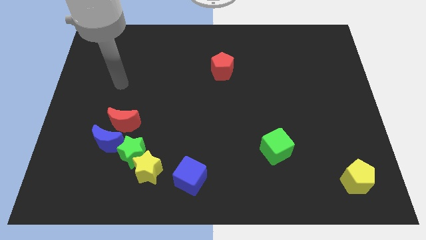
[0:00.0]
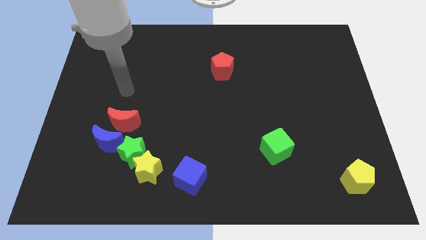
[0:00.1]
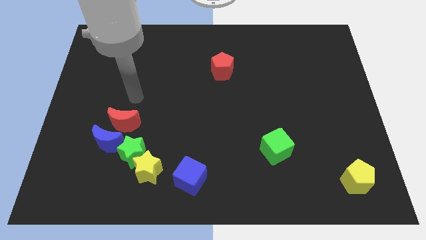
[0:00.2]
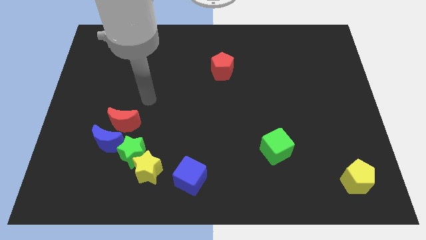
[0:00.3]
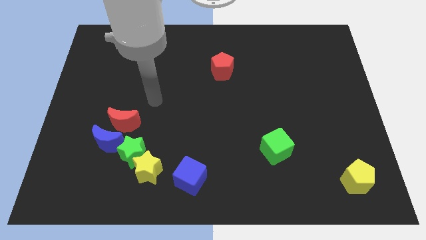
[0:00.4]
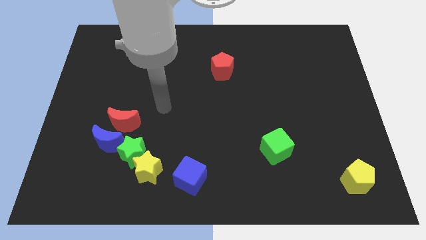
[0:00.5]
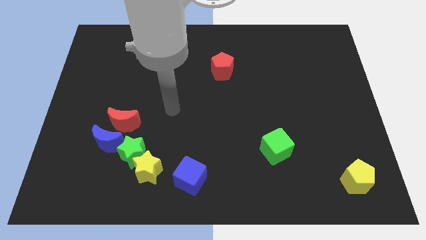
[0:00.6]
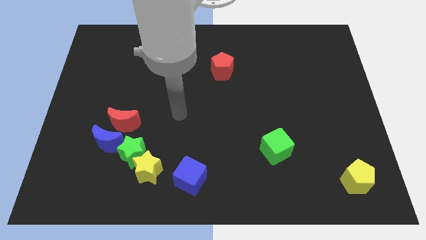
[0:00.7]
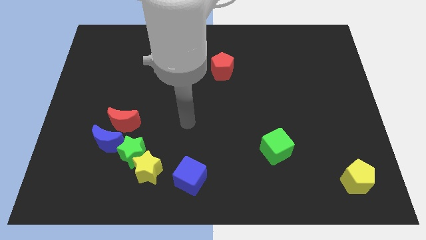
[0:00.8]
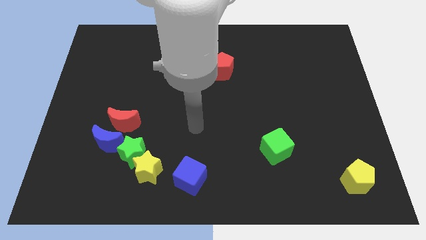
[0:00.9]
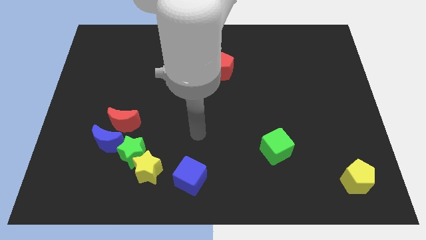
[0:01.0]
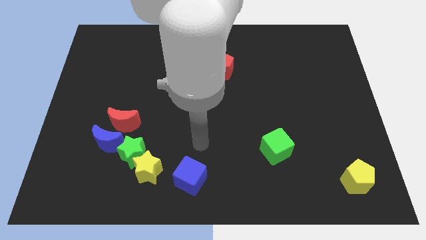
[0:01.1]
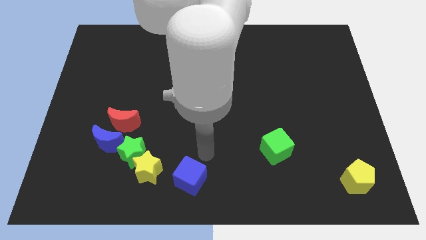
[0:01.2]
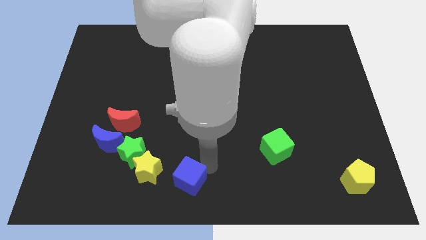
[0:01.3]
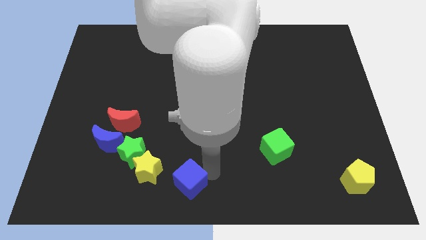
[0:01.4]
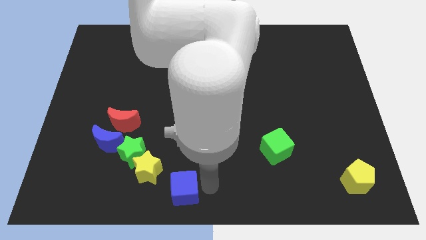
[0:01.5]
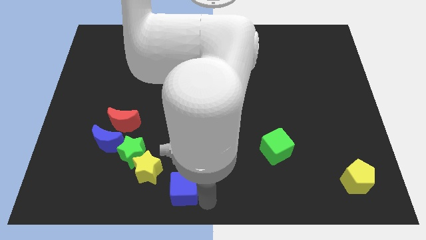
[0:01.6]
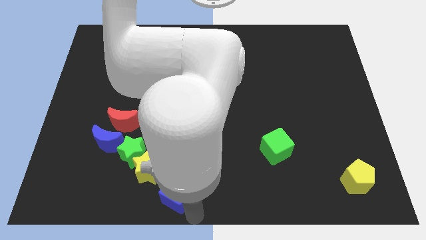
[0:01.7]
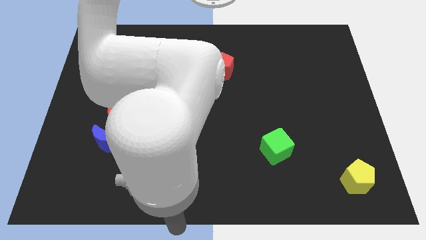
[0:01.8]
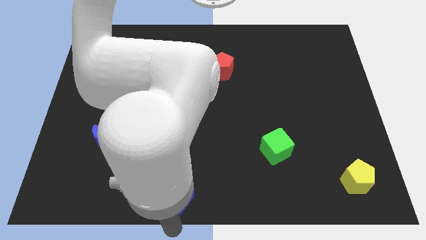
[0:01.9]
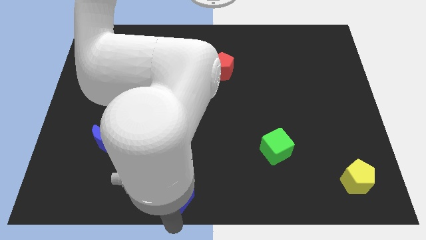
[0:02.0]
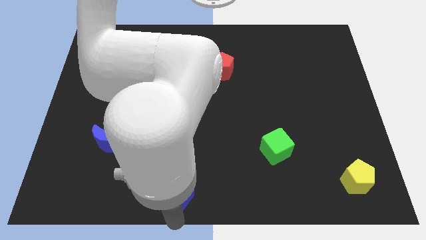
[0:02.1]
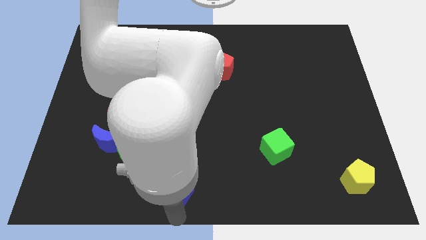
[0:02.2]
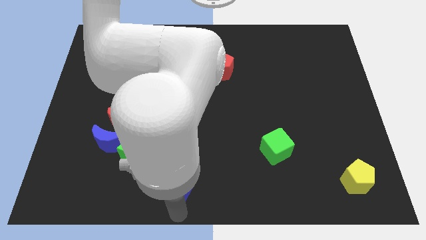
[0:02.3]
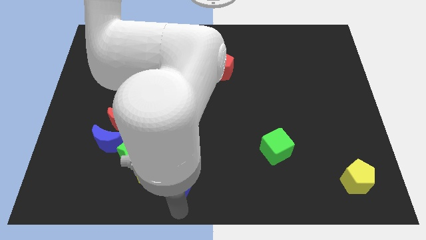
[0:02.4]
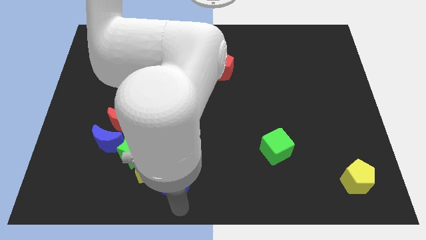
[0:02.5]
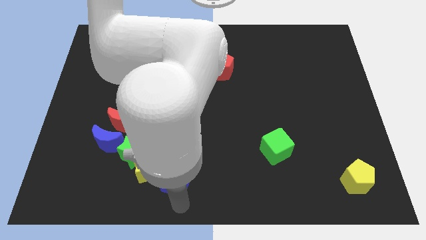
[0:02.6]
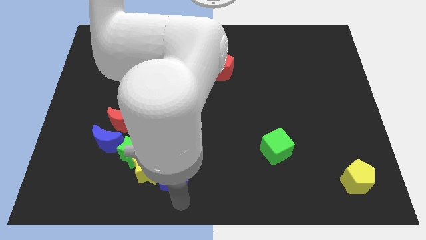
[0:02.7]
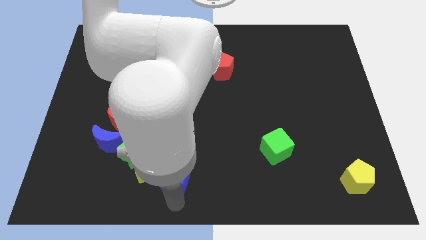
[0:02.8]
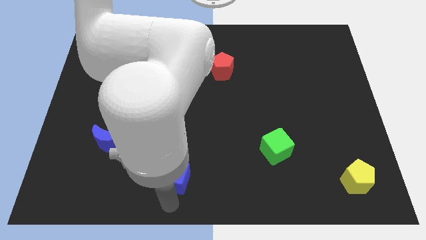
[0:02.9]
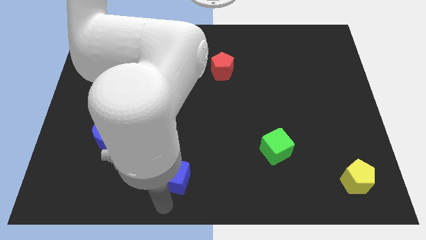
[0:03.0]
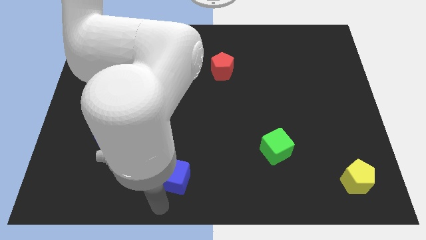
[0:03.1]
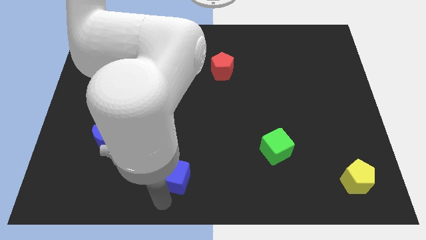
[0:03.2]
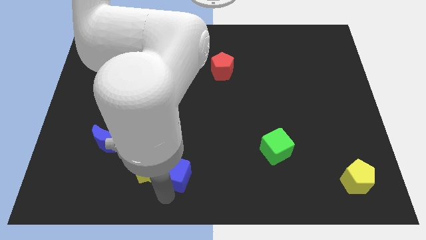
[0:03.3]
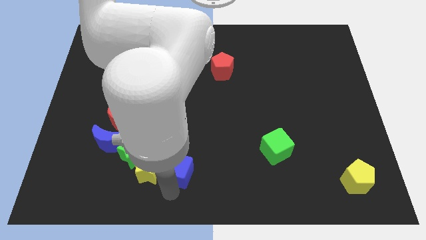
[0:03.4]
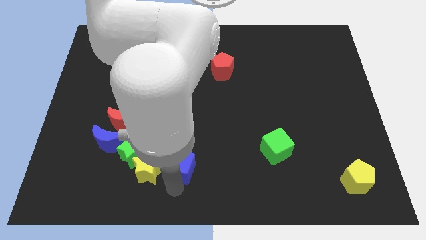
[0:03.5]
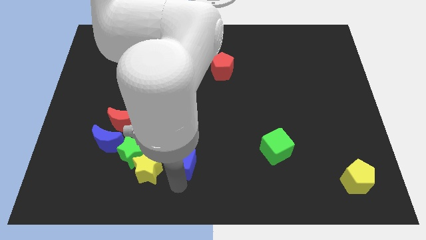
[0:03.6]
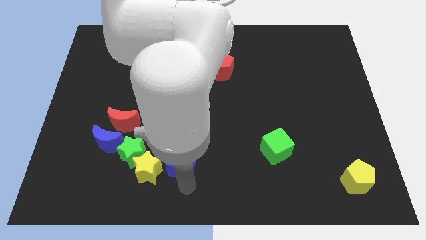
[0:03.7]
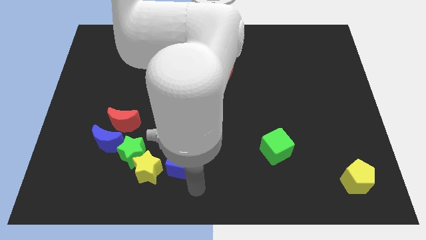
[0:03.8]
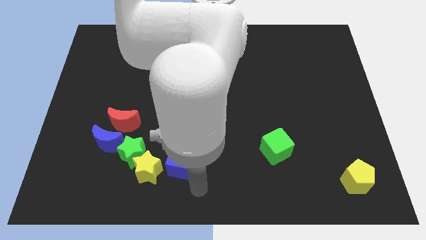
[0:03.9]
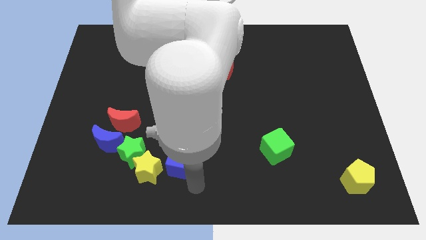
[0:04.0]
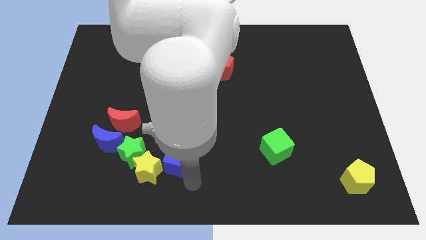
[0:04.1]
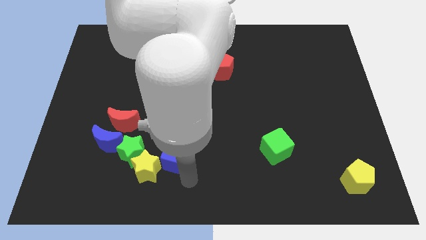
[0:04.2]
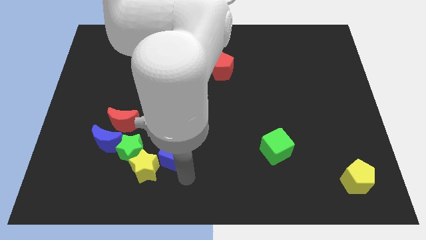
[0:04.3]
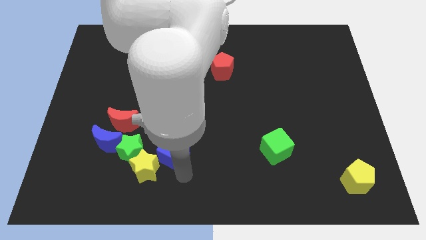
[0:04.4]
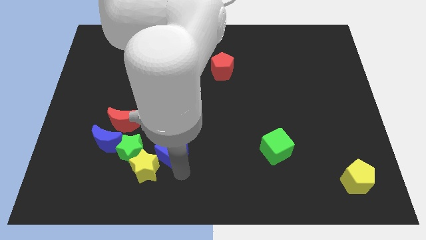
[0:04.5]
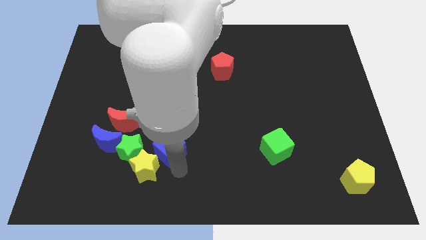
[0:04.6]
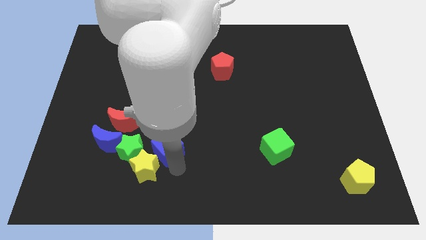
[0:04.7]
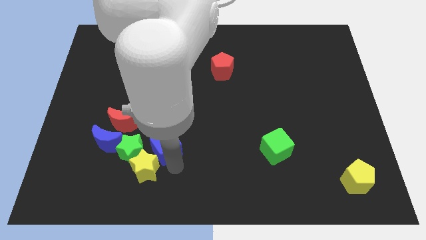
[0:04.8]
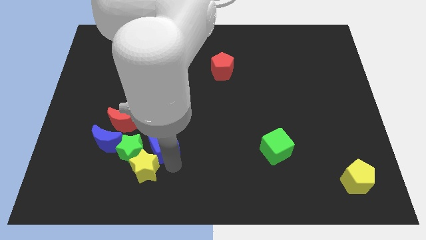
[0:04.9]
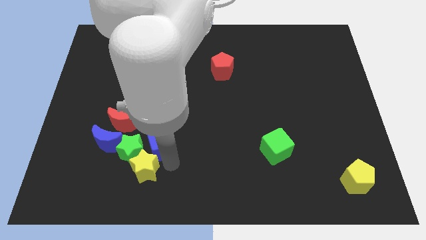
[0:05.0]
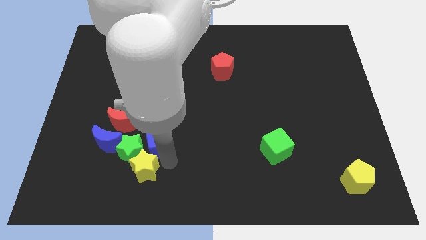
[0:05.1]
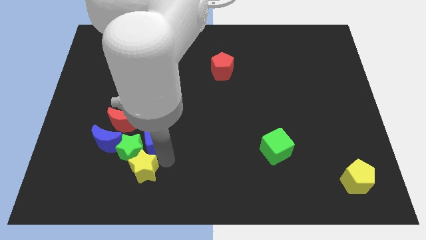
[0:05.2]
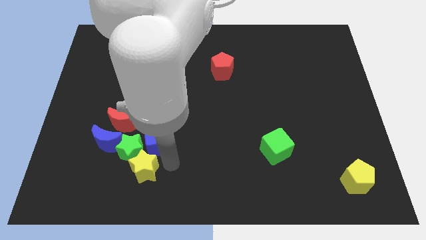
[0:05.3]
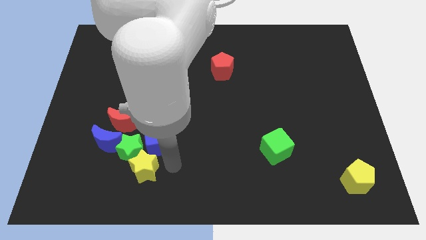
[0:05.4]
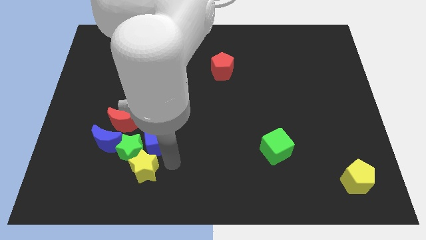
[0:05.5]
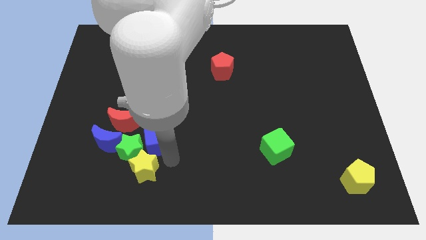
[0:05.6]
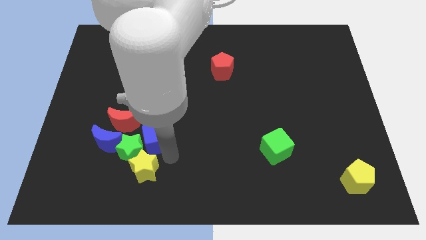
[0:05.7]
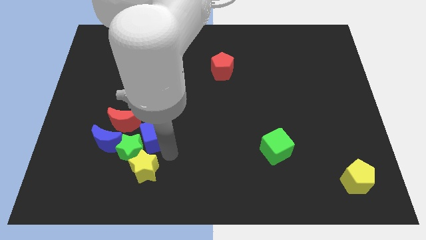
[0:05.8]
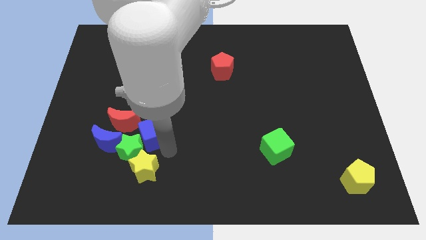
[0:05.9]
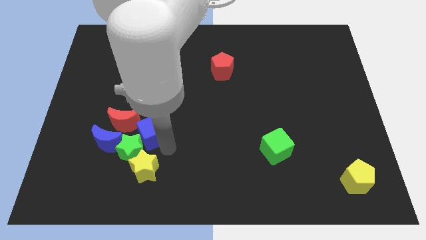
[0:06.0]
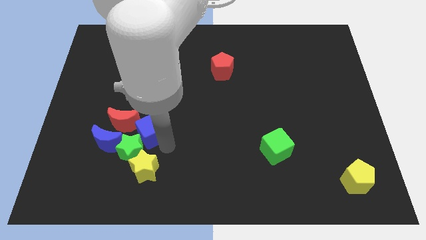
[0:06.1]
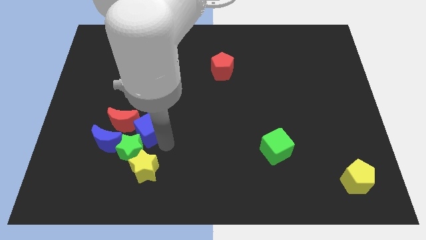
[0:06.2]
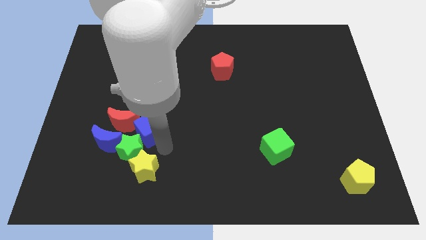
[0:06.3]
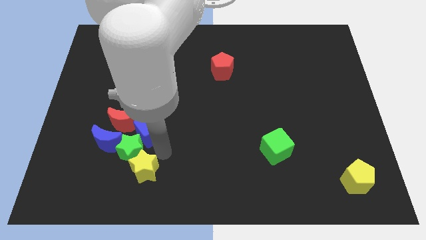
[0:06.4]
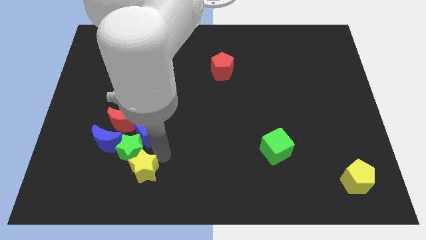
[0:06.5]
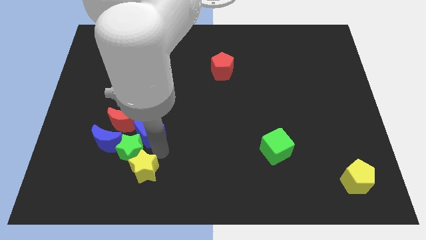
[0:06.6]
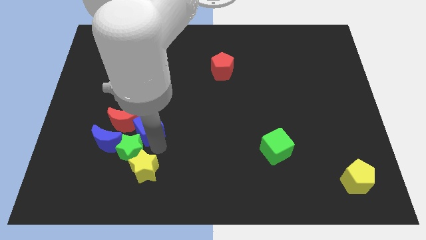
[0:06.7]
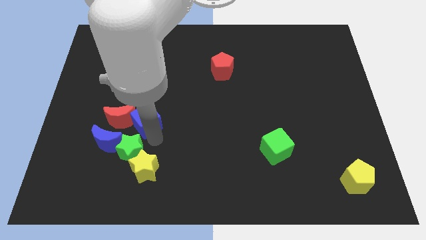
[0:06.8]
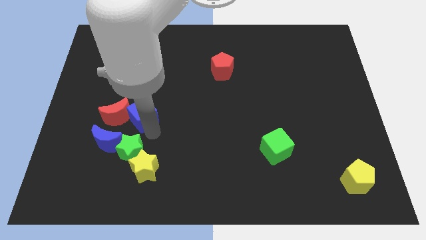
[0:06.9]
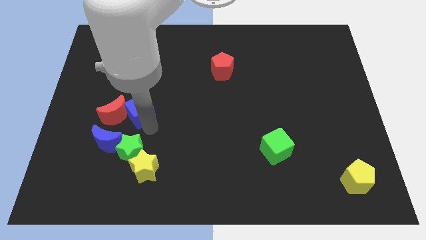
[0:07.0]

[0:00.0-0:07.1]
slide the blue cube diagonally up and to the left

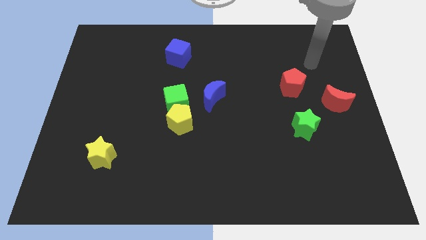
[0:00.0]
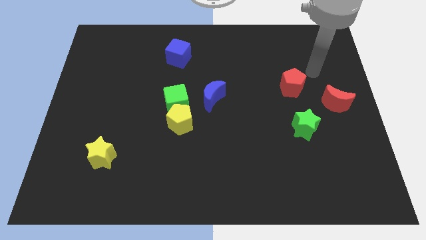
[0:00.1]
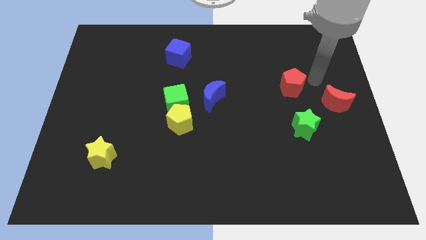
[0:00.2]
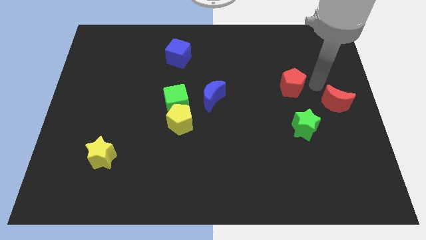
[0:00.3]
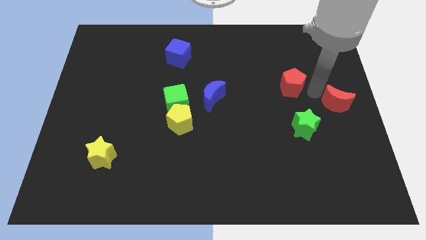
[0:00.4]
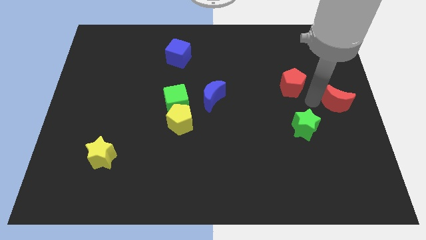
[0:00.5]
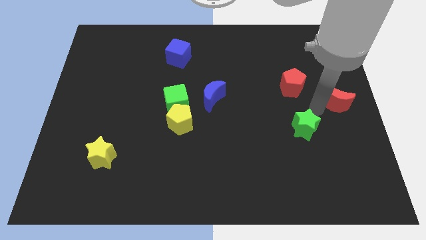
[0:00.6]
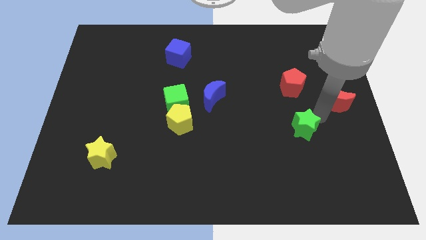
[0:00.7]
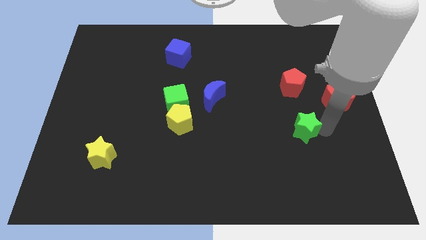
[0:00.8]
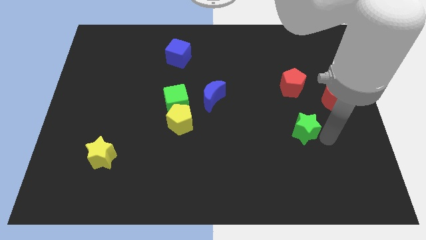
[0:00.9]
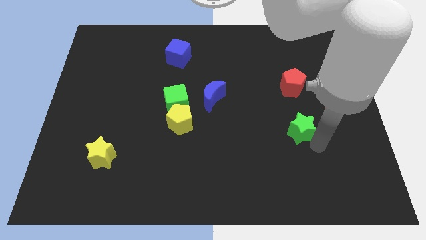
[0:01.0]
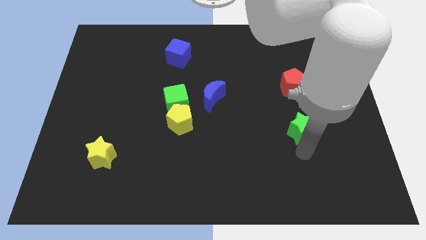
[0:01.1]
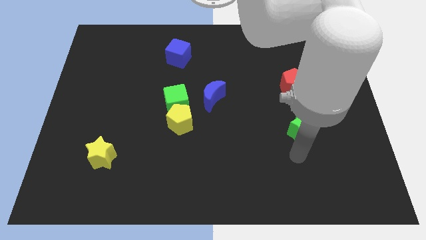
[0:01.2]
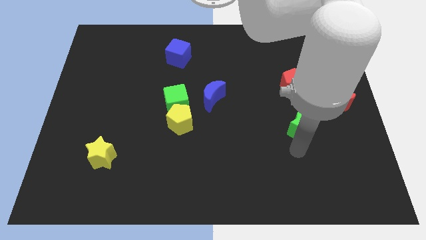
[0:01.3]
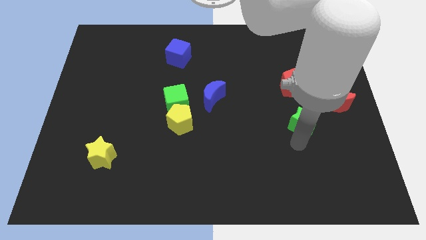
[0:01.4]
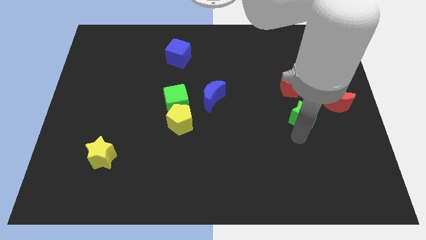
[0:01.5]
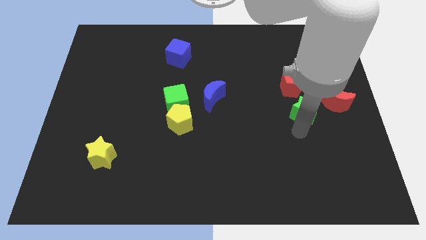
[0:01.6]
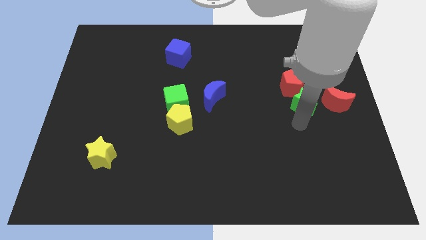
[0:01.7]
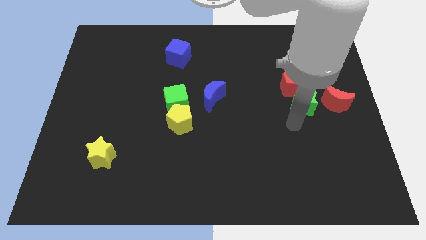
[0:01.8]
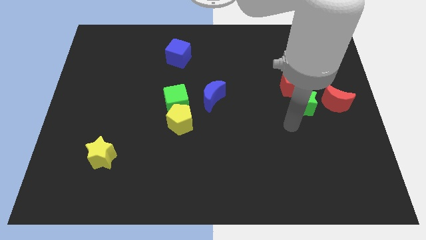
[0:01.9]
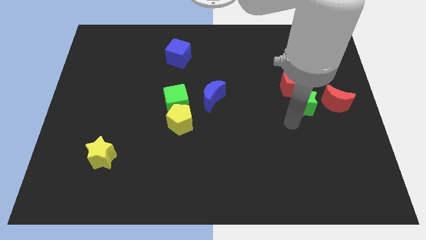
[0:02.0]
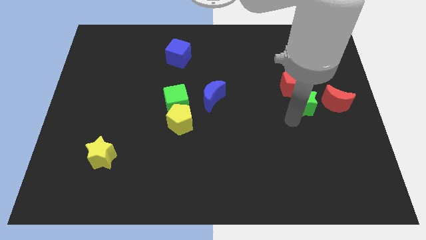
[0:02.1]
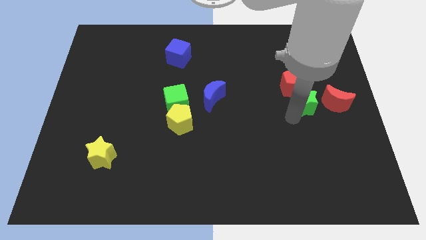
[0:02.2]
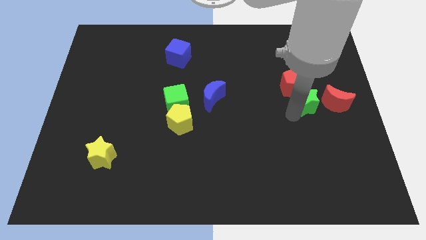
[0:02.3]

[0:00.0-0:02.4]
move the green star up a little
